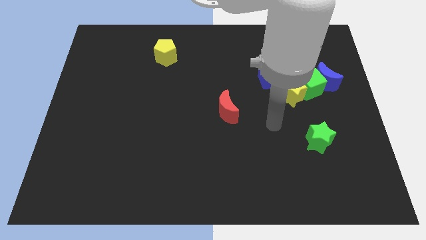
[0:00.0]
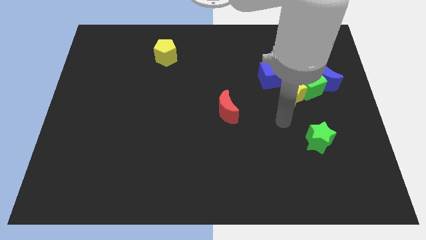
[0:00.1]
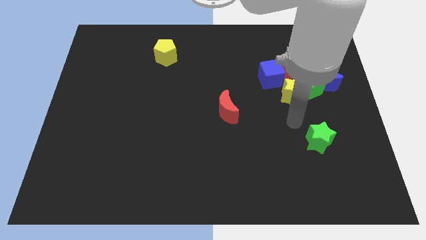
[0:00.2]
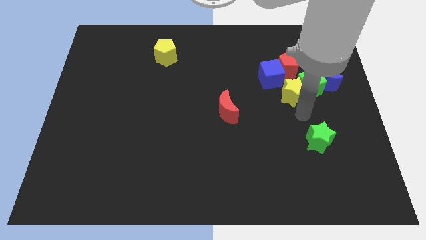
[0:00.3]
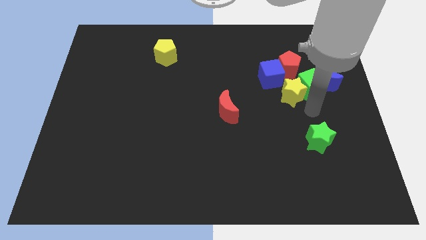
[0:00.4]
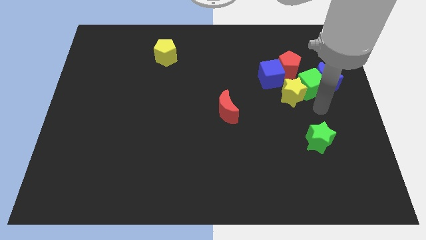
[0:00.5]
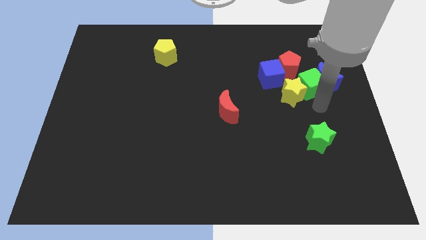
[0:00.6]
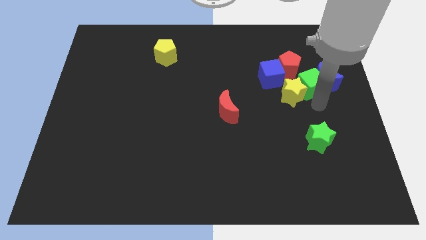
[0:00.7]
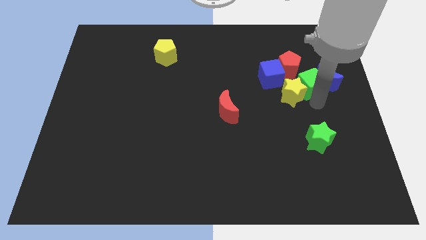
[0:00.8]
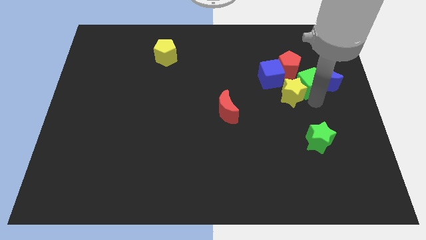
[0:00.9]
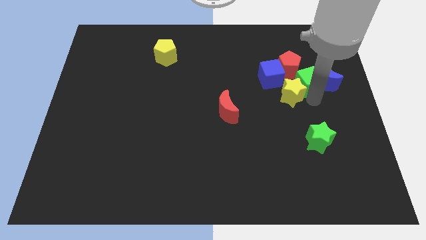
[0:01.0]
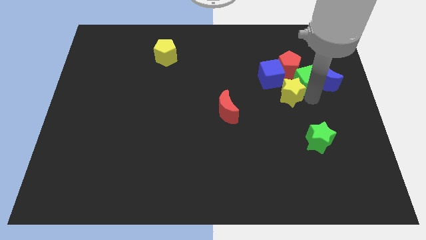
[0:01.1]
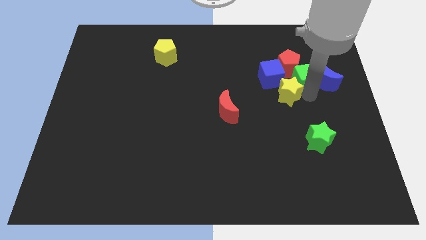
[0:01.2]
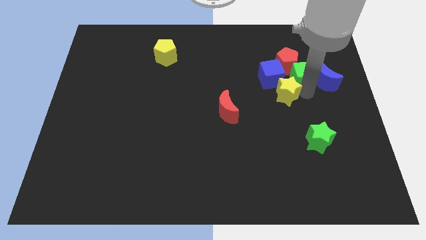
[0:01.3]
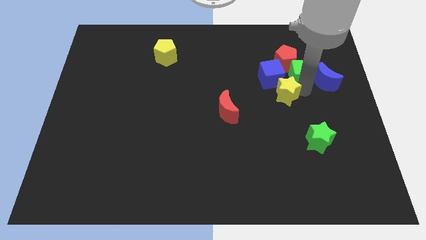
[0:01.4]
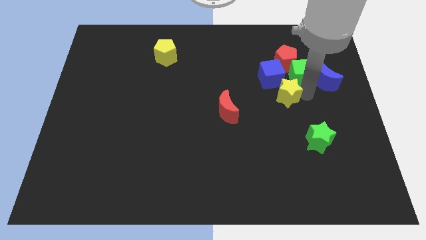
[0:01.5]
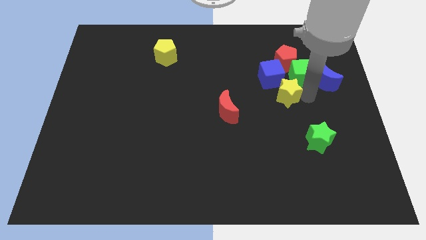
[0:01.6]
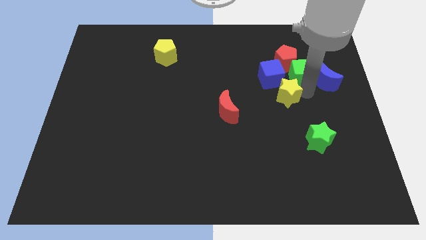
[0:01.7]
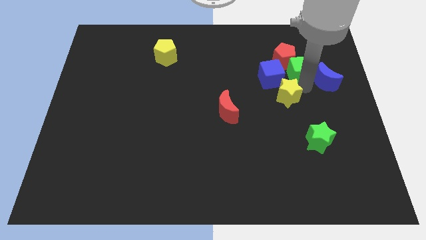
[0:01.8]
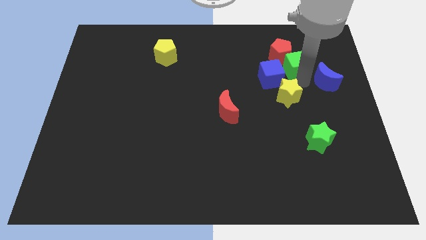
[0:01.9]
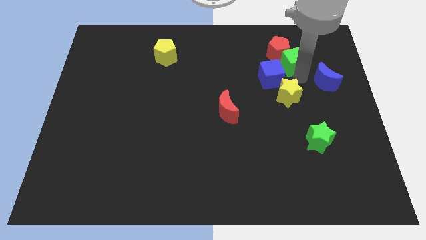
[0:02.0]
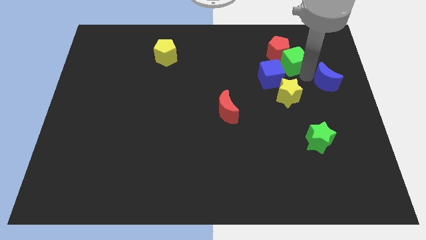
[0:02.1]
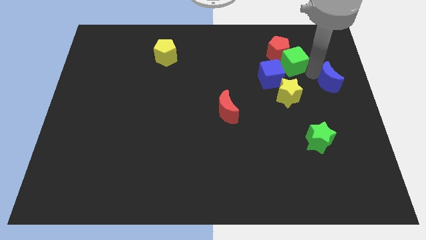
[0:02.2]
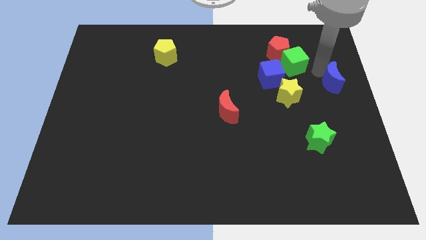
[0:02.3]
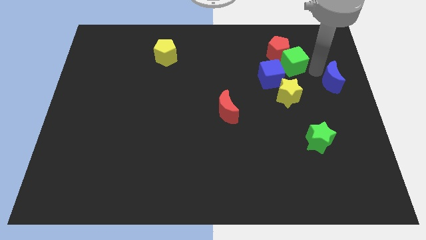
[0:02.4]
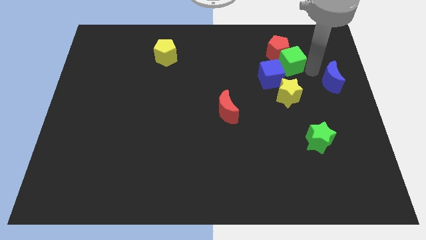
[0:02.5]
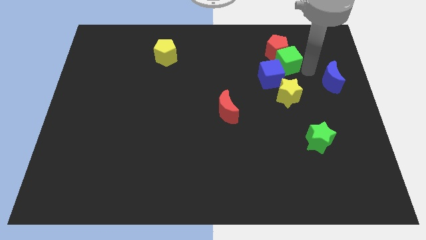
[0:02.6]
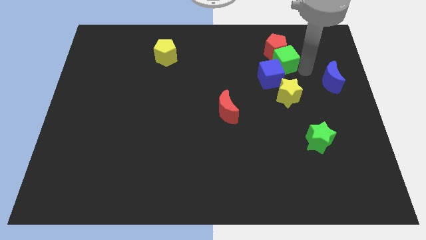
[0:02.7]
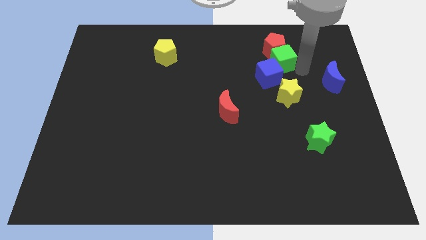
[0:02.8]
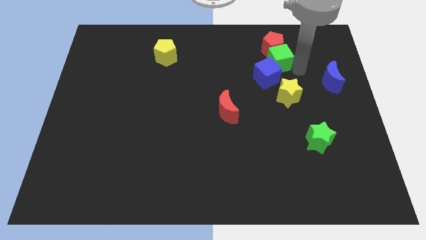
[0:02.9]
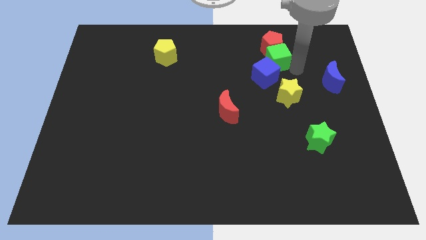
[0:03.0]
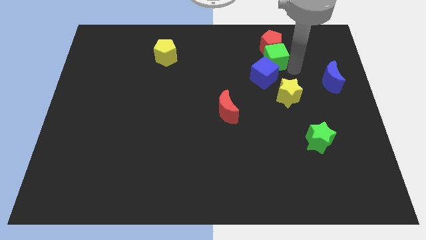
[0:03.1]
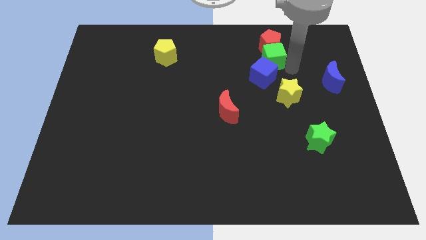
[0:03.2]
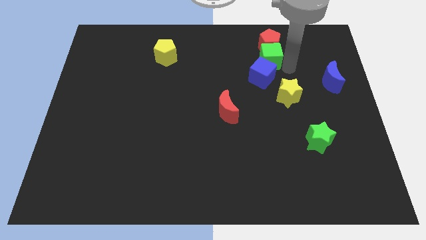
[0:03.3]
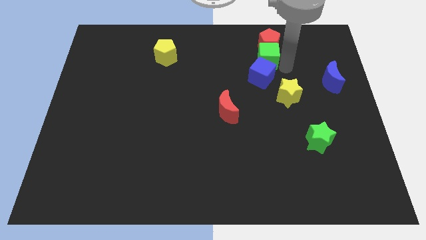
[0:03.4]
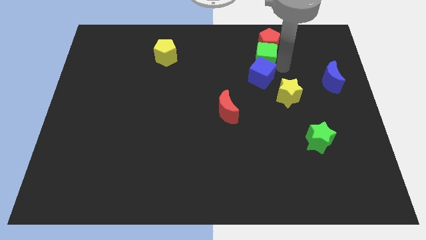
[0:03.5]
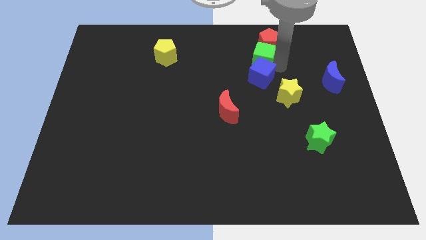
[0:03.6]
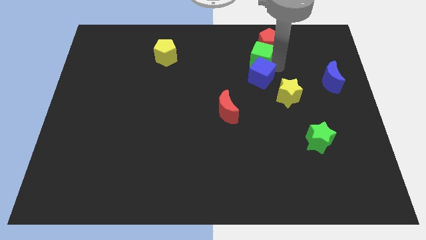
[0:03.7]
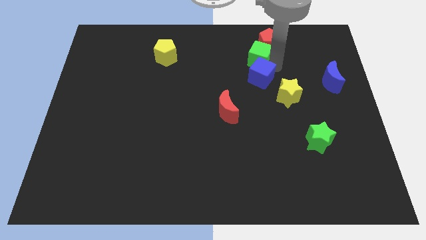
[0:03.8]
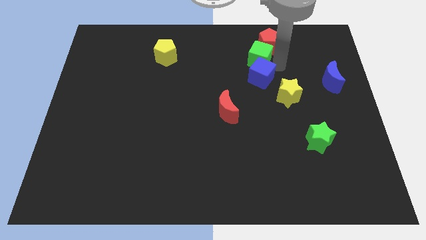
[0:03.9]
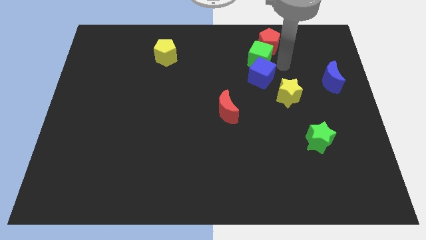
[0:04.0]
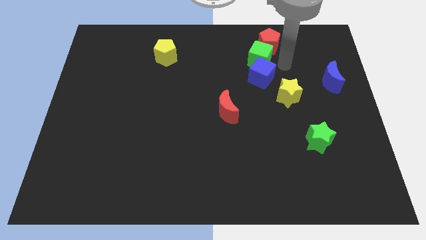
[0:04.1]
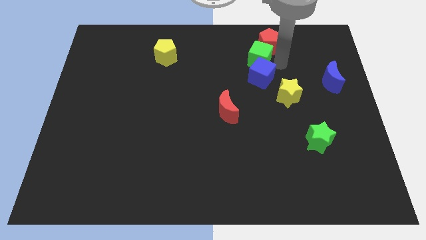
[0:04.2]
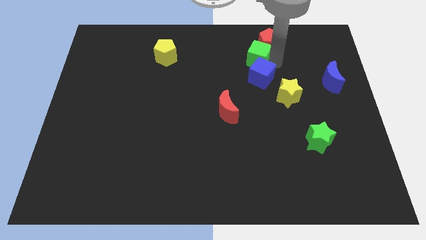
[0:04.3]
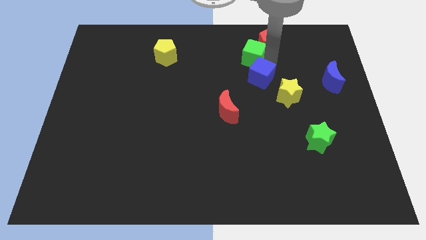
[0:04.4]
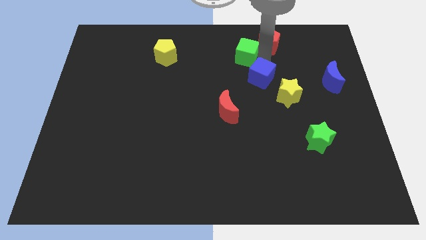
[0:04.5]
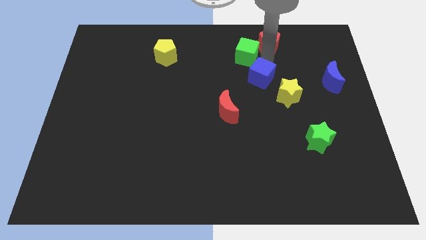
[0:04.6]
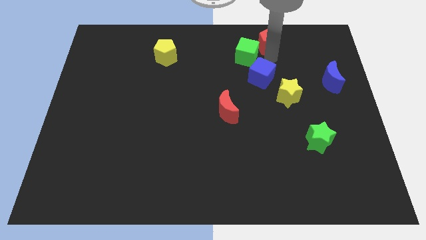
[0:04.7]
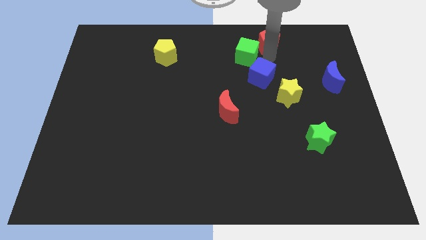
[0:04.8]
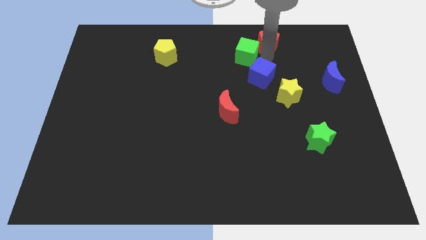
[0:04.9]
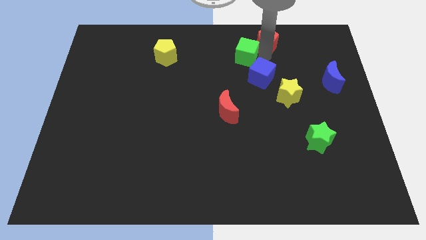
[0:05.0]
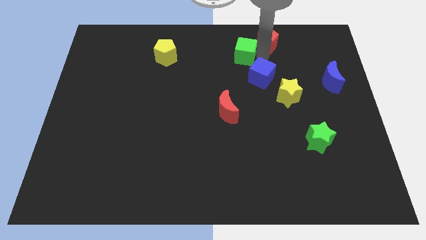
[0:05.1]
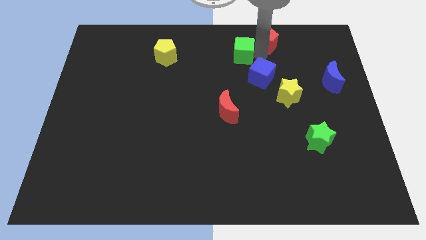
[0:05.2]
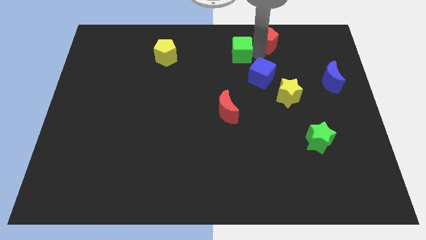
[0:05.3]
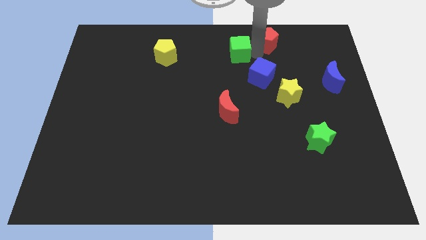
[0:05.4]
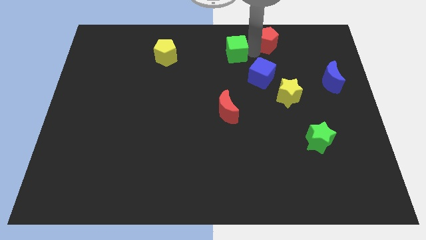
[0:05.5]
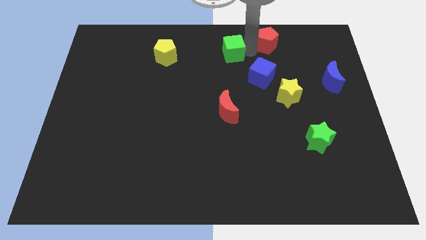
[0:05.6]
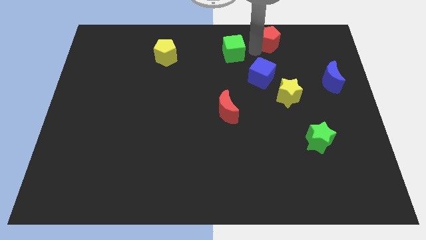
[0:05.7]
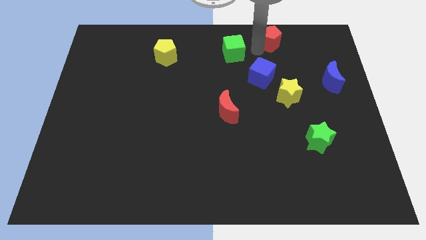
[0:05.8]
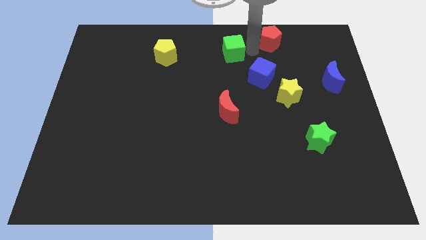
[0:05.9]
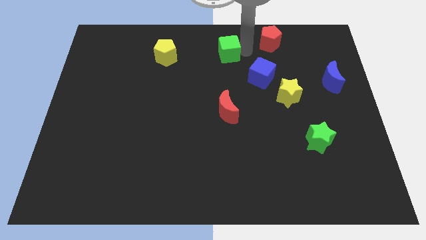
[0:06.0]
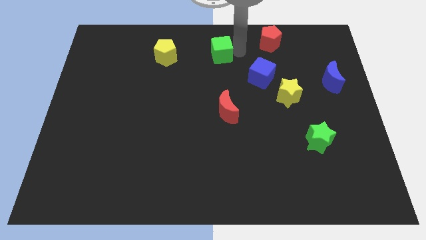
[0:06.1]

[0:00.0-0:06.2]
move the green cube just right of the yellow pentagon

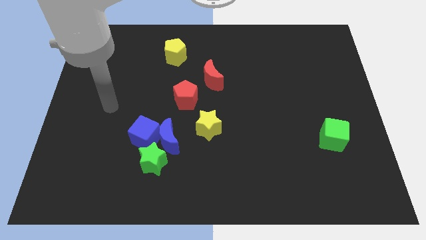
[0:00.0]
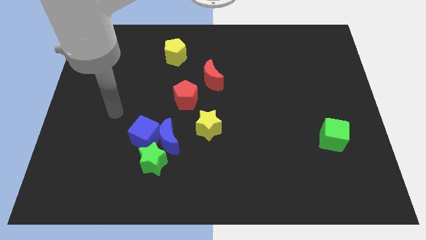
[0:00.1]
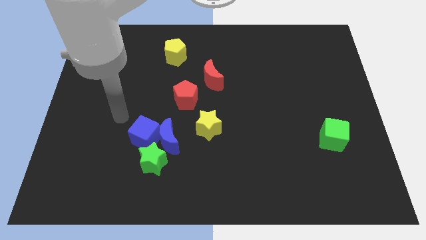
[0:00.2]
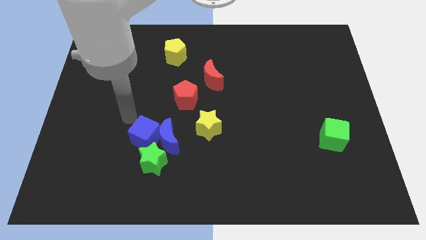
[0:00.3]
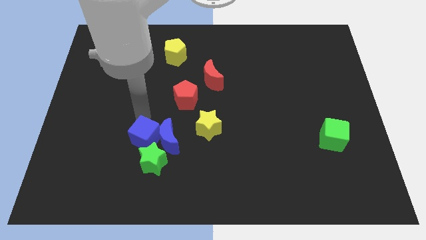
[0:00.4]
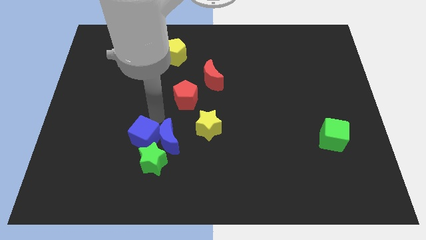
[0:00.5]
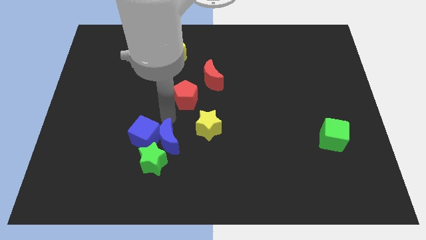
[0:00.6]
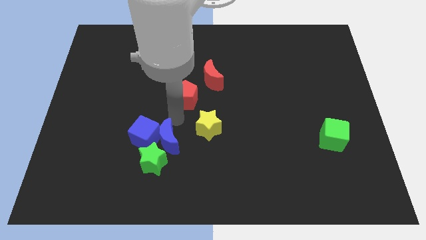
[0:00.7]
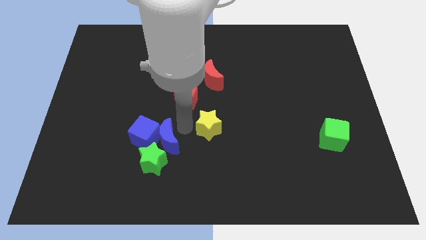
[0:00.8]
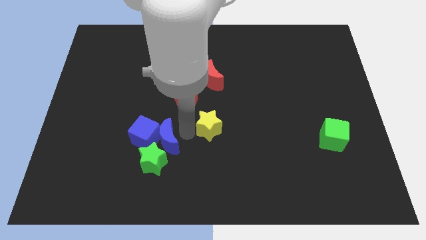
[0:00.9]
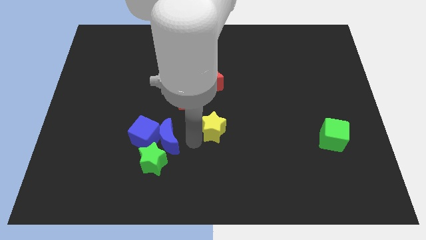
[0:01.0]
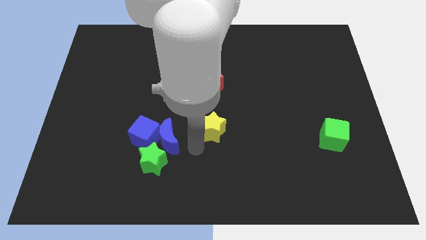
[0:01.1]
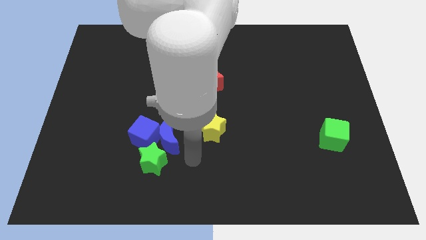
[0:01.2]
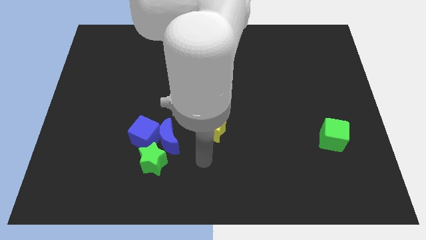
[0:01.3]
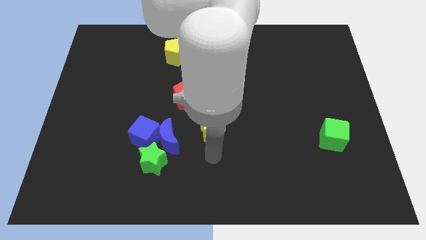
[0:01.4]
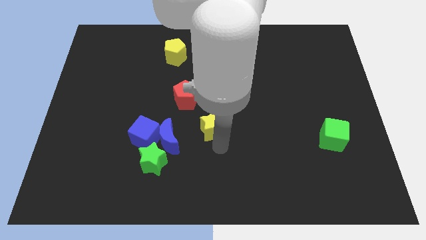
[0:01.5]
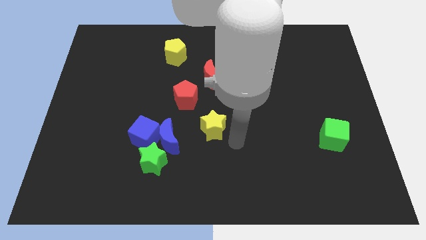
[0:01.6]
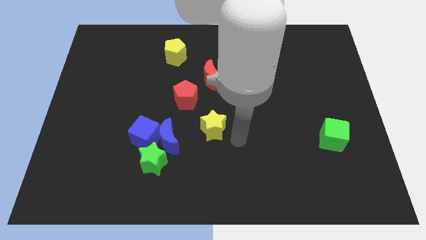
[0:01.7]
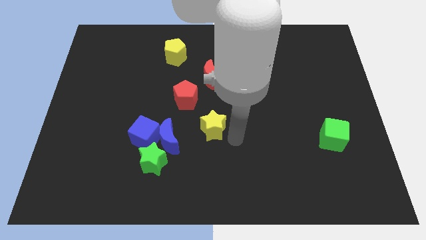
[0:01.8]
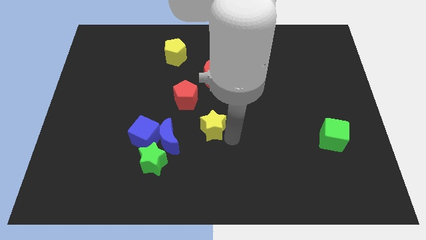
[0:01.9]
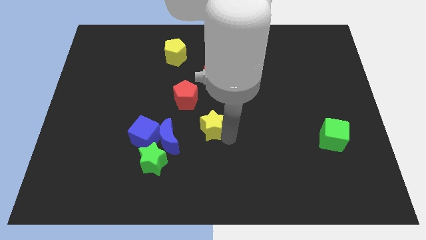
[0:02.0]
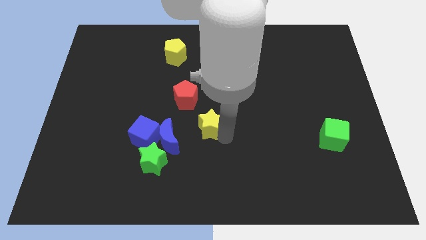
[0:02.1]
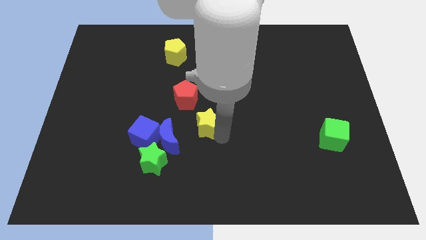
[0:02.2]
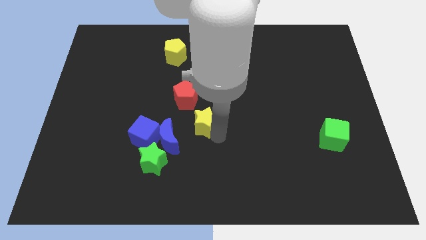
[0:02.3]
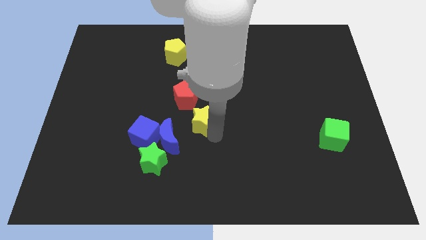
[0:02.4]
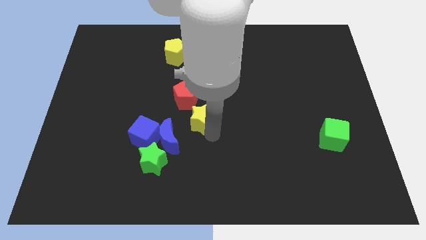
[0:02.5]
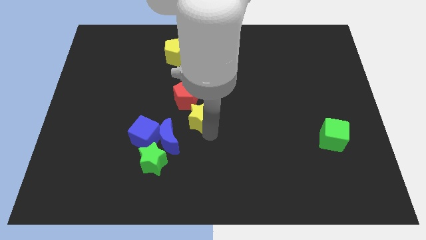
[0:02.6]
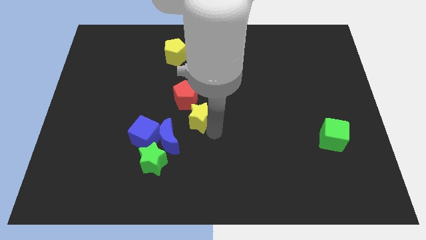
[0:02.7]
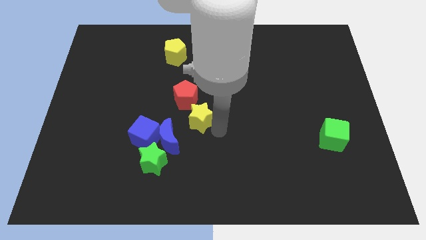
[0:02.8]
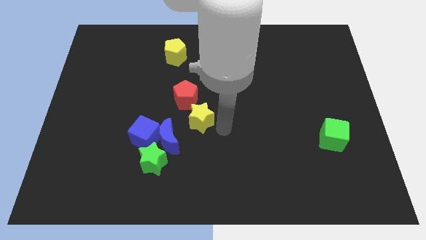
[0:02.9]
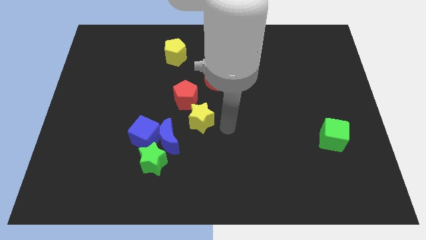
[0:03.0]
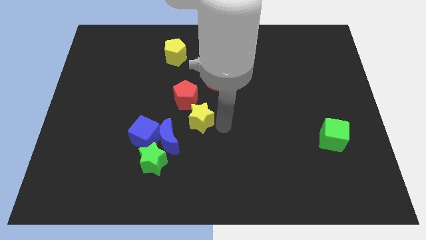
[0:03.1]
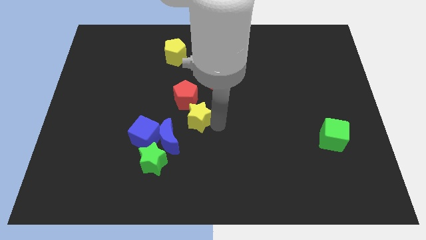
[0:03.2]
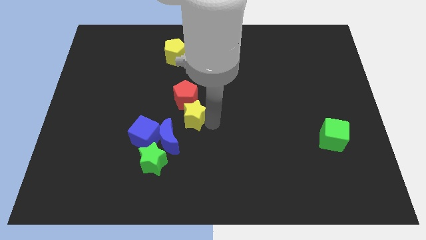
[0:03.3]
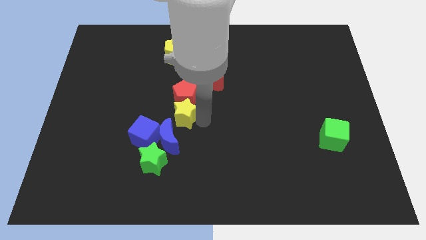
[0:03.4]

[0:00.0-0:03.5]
put the yellow star to the top side of the blue moon
